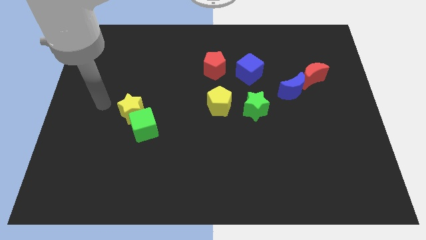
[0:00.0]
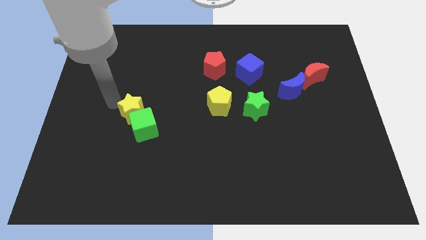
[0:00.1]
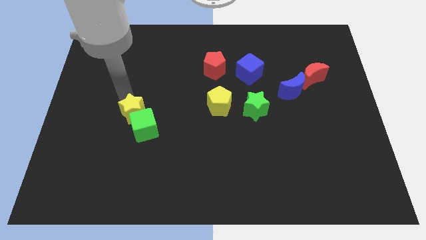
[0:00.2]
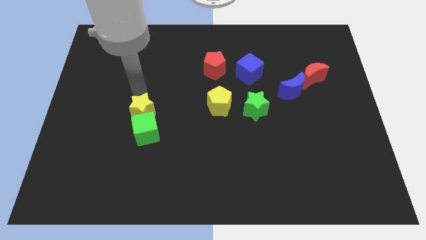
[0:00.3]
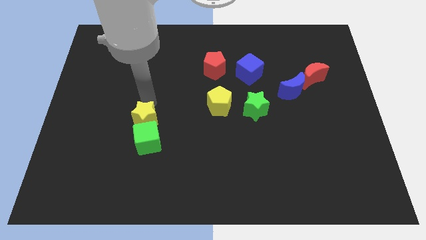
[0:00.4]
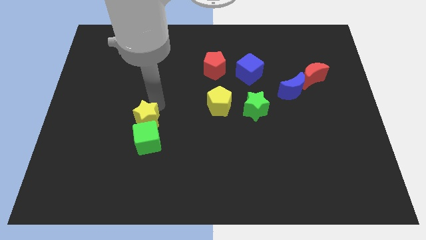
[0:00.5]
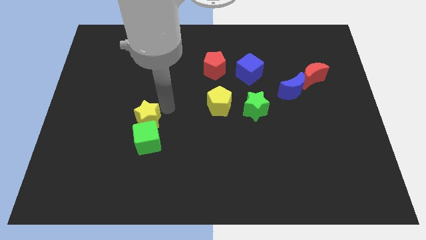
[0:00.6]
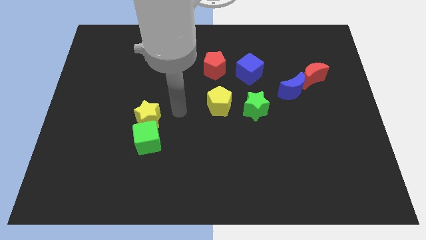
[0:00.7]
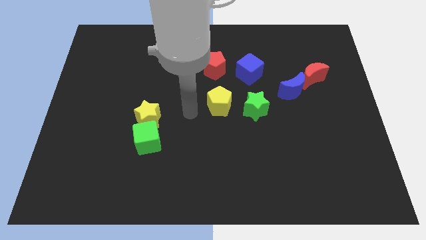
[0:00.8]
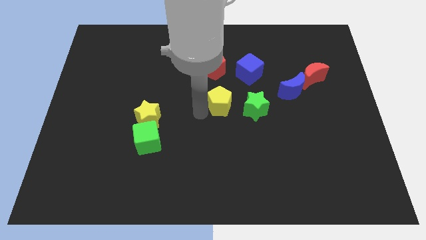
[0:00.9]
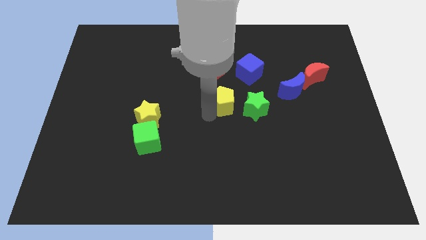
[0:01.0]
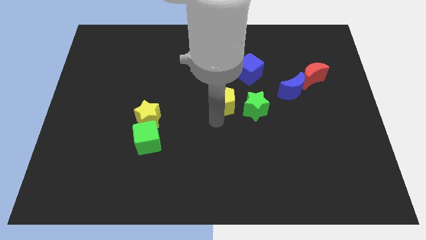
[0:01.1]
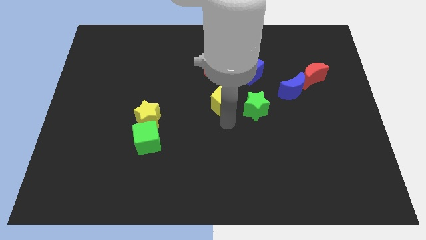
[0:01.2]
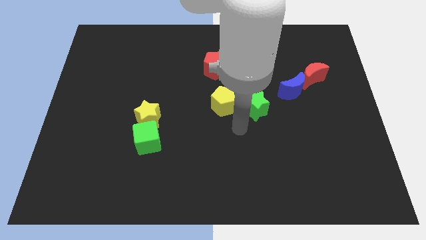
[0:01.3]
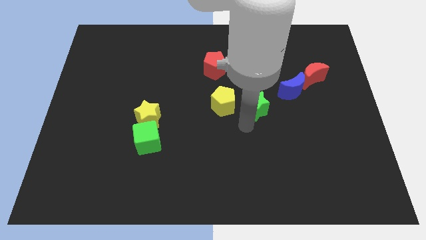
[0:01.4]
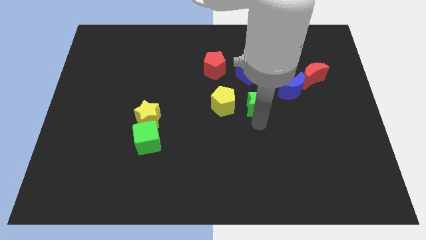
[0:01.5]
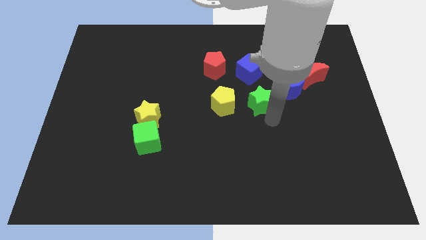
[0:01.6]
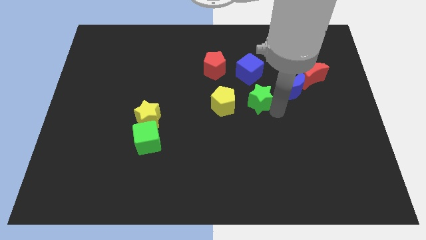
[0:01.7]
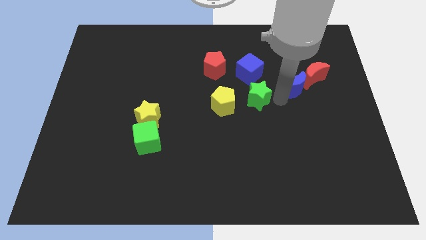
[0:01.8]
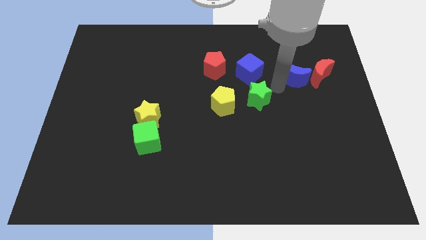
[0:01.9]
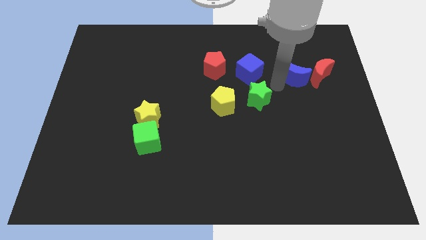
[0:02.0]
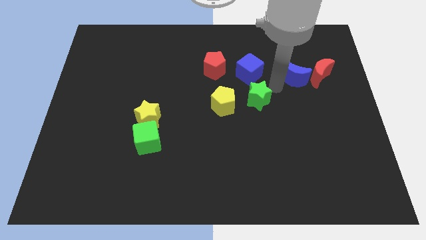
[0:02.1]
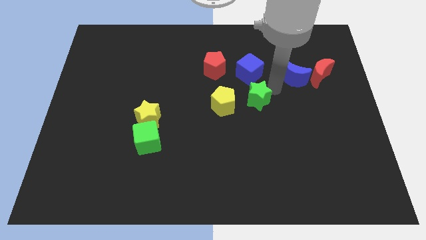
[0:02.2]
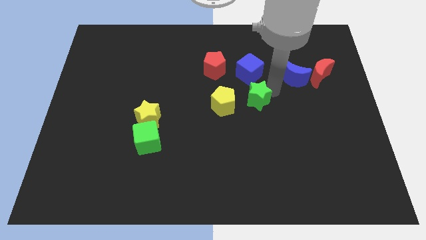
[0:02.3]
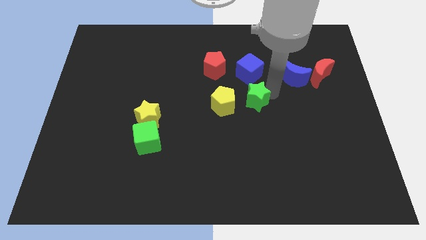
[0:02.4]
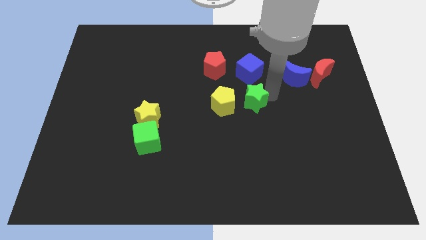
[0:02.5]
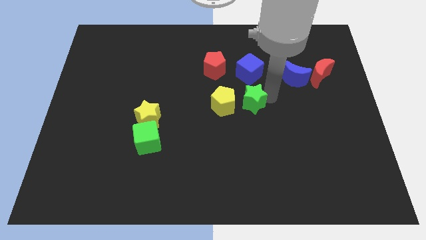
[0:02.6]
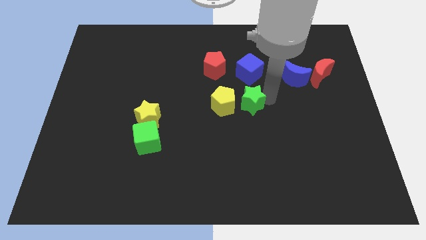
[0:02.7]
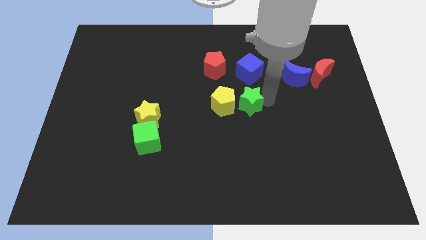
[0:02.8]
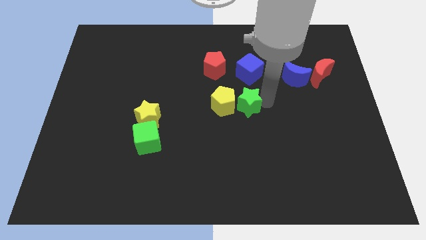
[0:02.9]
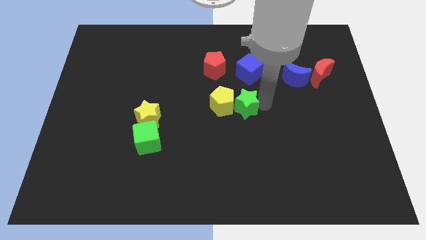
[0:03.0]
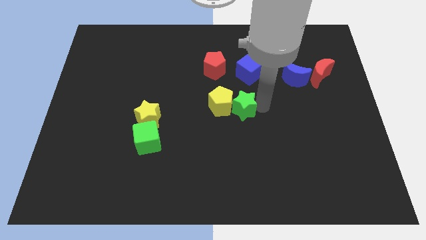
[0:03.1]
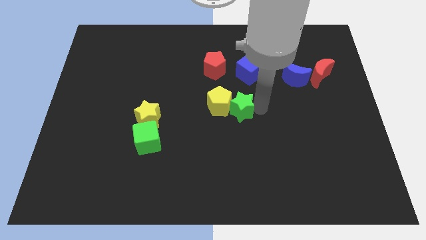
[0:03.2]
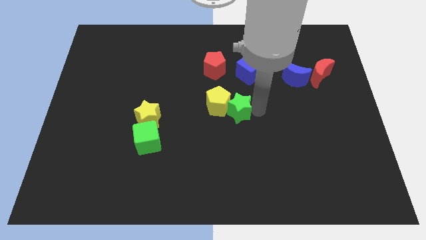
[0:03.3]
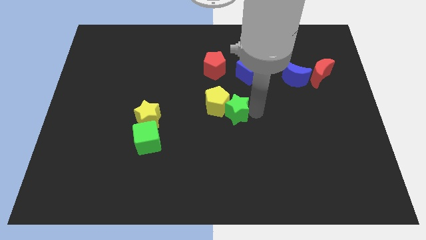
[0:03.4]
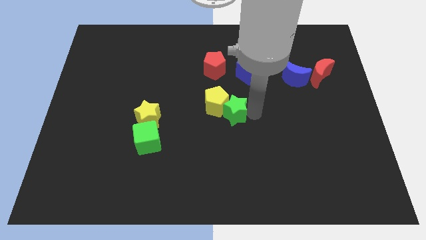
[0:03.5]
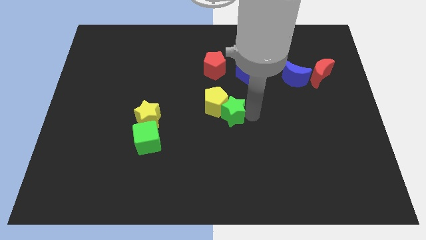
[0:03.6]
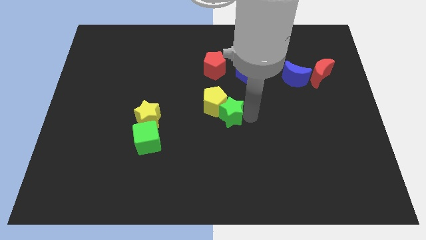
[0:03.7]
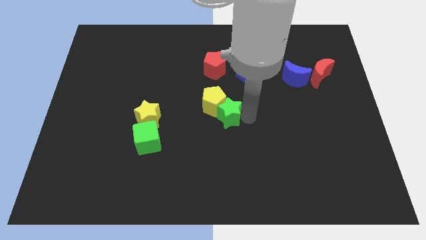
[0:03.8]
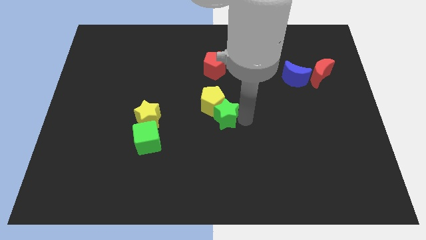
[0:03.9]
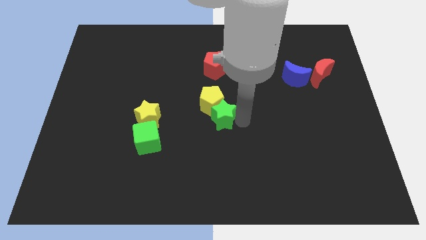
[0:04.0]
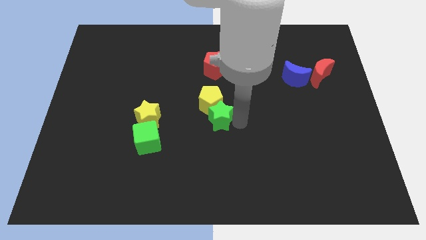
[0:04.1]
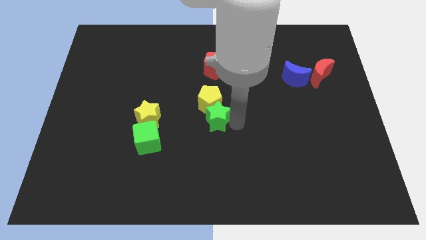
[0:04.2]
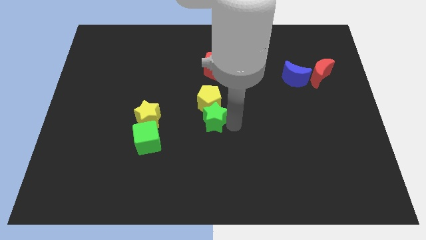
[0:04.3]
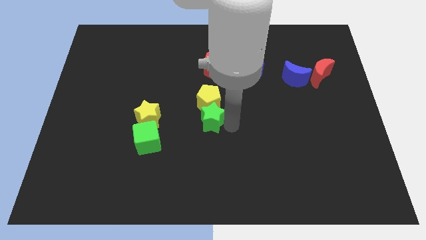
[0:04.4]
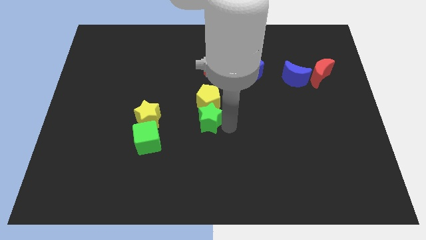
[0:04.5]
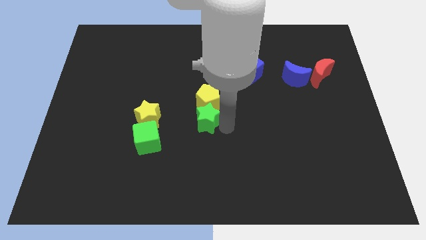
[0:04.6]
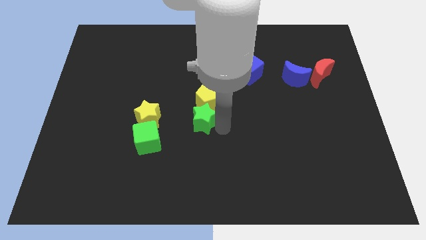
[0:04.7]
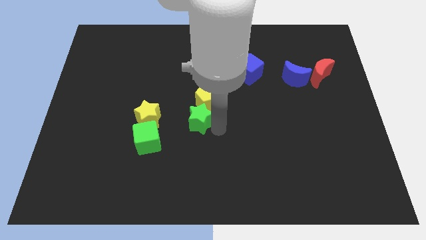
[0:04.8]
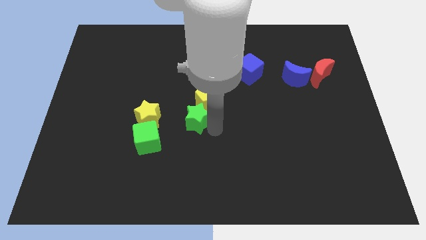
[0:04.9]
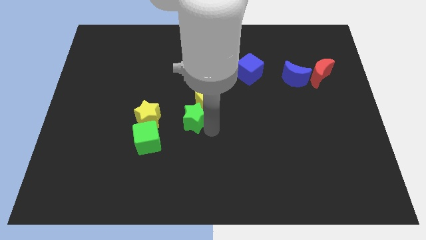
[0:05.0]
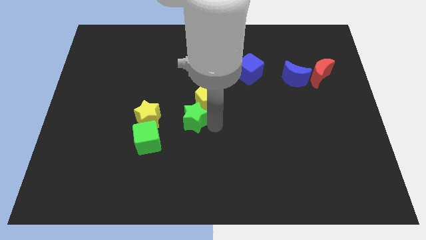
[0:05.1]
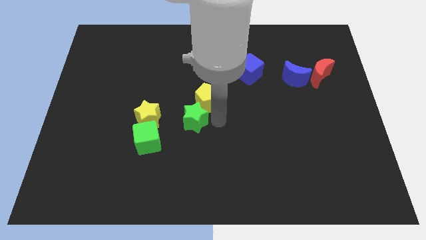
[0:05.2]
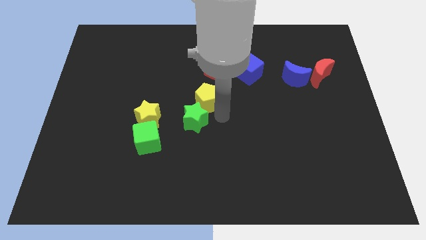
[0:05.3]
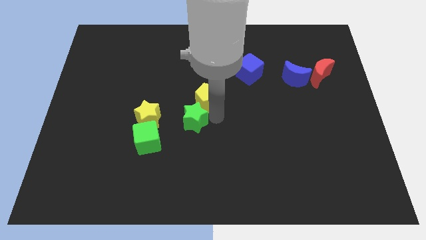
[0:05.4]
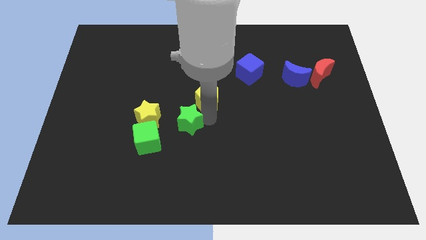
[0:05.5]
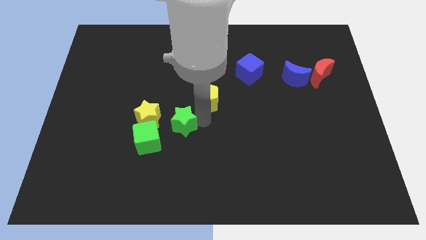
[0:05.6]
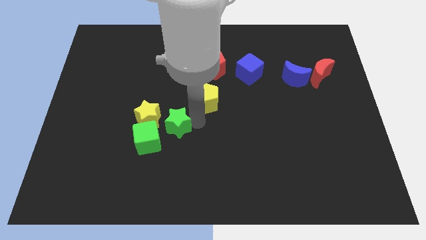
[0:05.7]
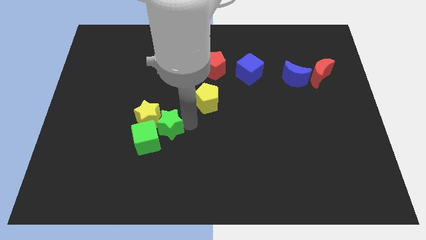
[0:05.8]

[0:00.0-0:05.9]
put the green star next to the green cube

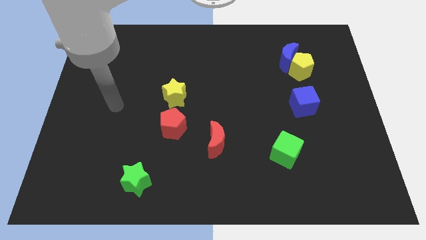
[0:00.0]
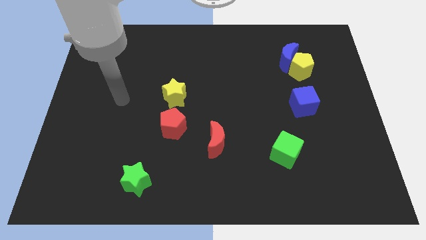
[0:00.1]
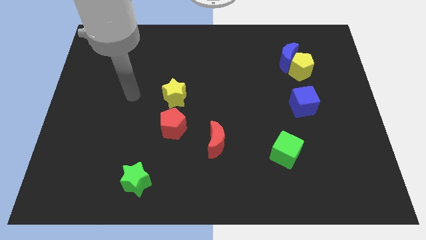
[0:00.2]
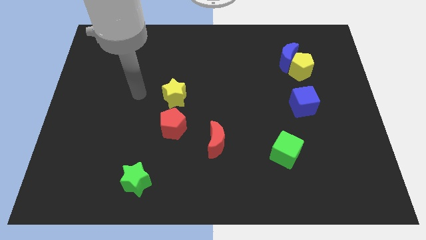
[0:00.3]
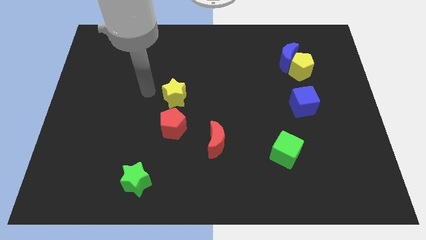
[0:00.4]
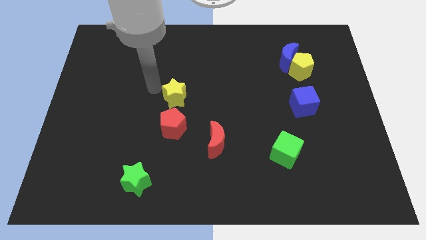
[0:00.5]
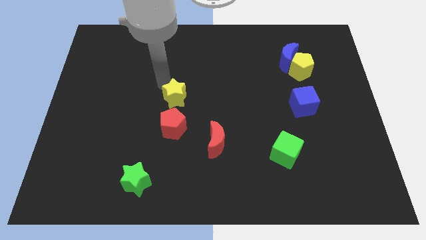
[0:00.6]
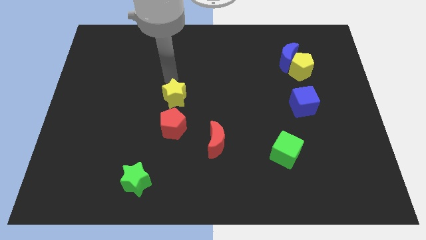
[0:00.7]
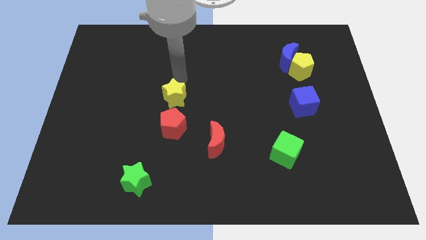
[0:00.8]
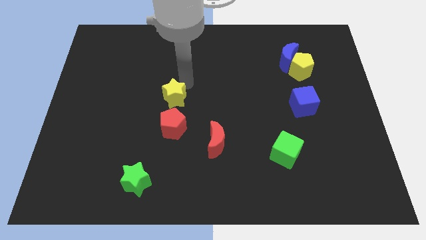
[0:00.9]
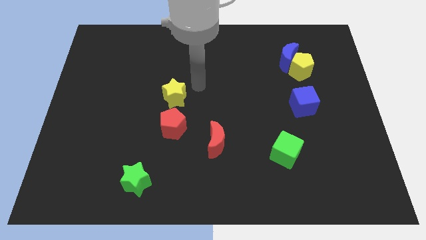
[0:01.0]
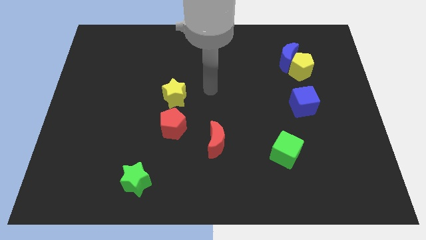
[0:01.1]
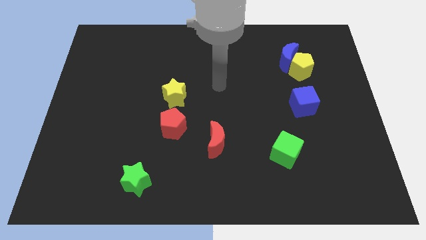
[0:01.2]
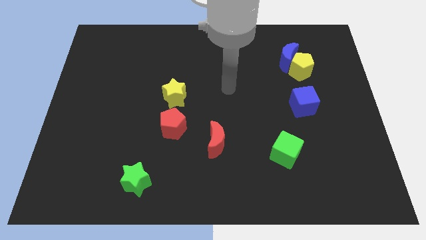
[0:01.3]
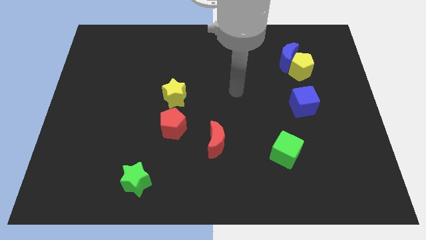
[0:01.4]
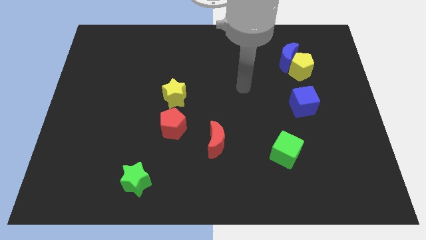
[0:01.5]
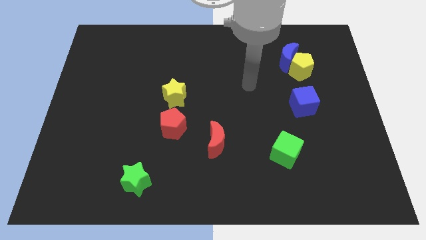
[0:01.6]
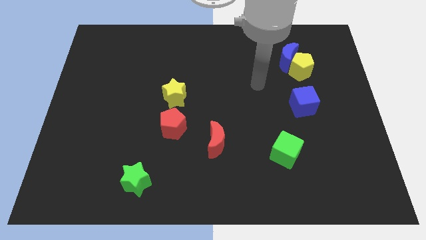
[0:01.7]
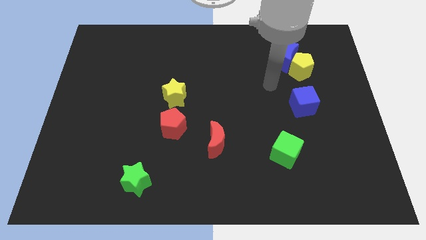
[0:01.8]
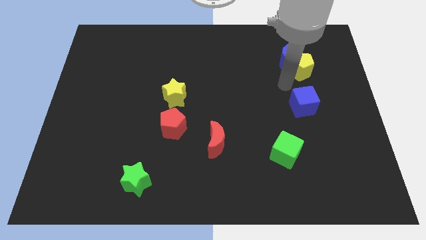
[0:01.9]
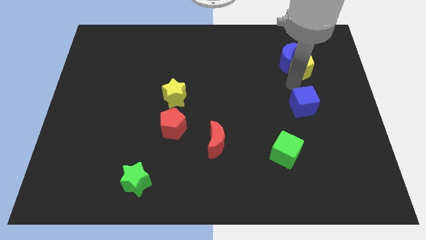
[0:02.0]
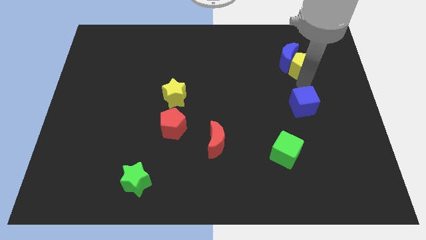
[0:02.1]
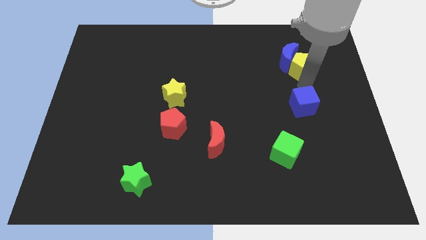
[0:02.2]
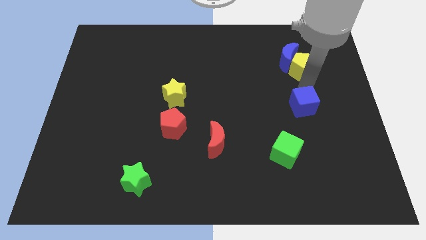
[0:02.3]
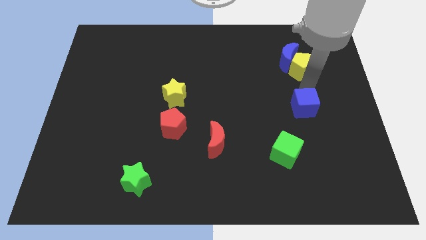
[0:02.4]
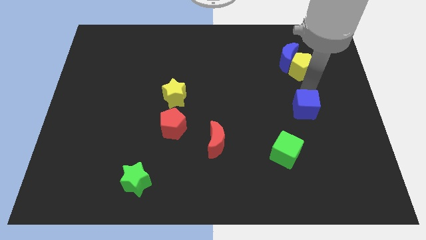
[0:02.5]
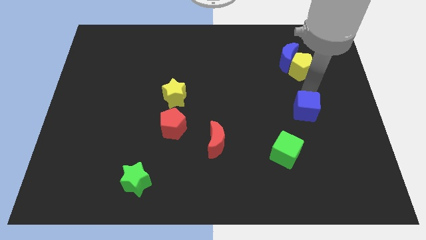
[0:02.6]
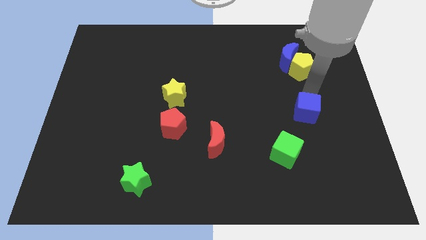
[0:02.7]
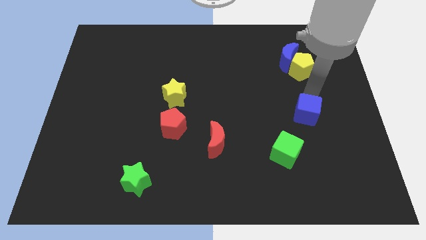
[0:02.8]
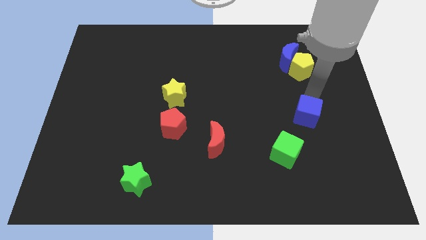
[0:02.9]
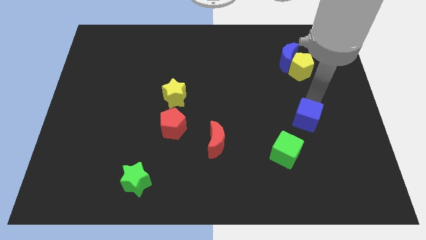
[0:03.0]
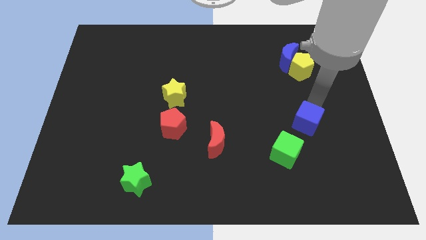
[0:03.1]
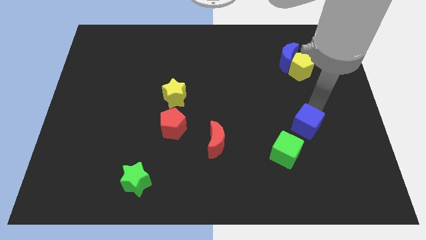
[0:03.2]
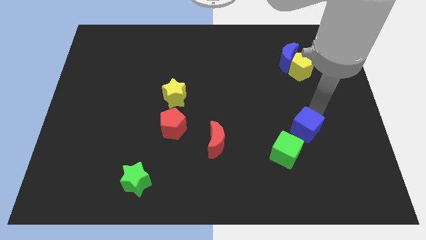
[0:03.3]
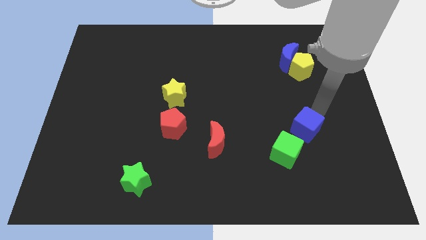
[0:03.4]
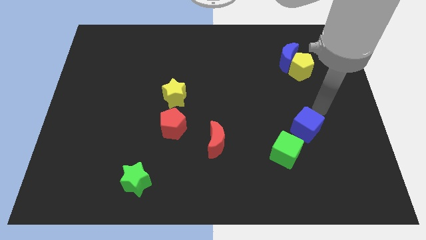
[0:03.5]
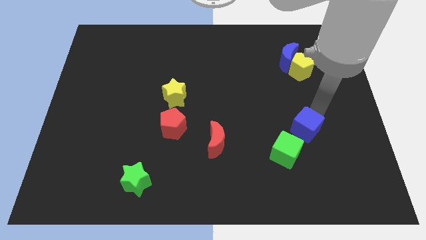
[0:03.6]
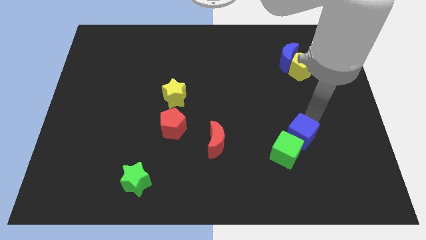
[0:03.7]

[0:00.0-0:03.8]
slide the blue cube next to the green cube
